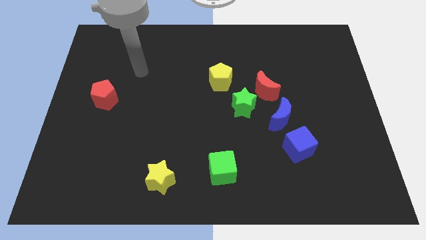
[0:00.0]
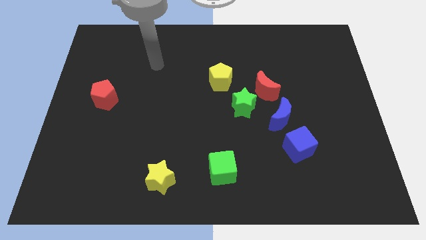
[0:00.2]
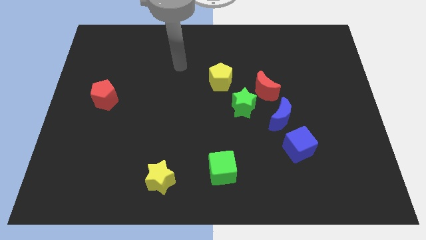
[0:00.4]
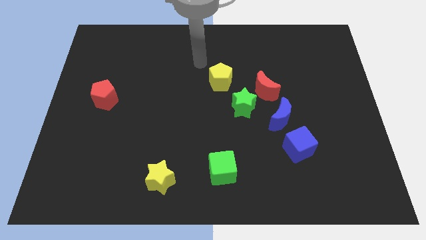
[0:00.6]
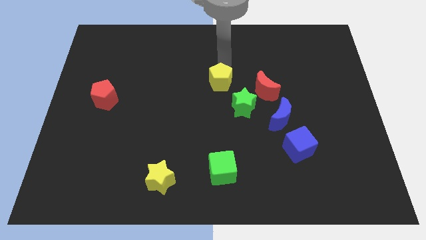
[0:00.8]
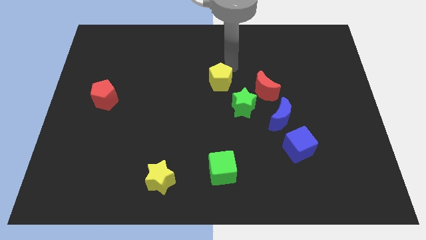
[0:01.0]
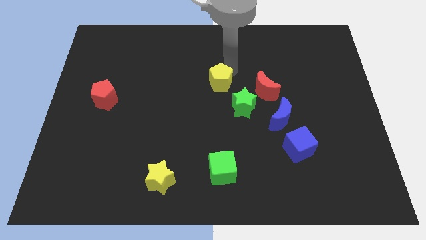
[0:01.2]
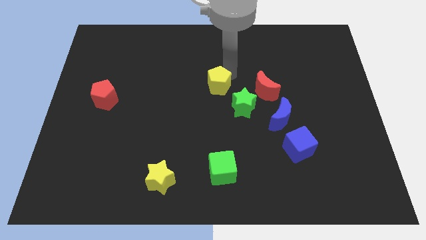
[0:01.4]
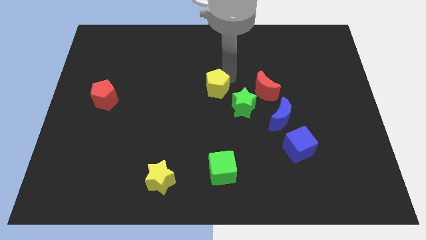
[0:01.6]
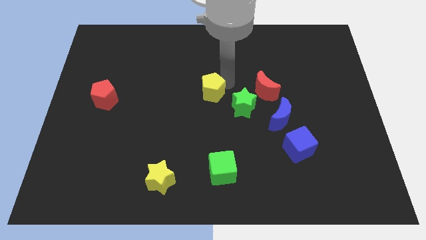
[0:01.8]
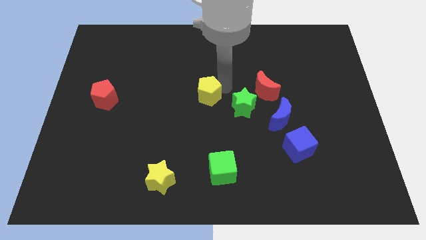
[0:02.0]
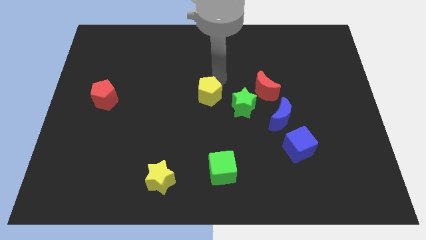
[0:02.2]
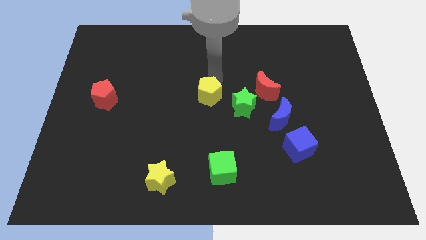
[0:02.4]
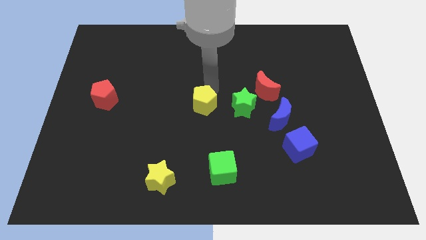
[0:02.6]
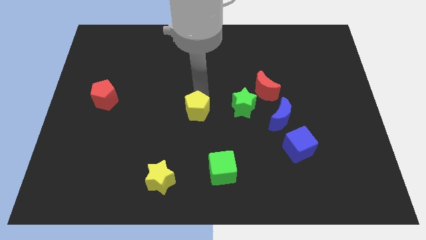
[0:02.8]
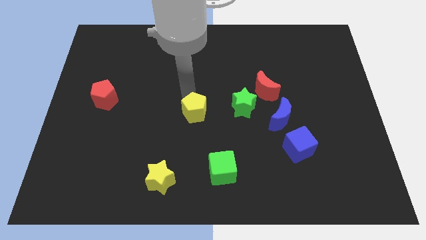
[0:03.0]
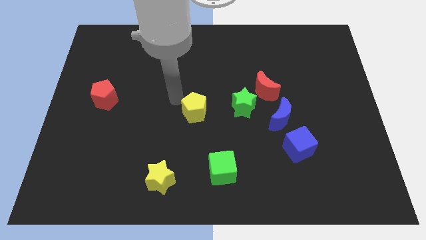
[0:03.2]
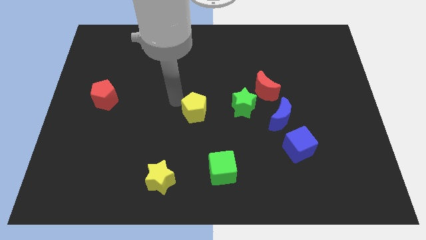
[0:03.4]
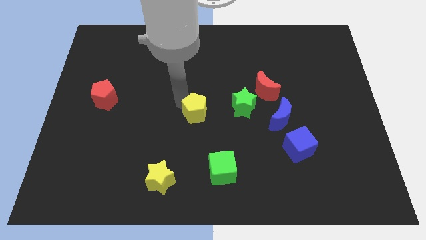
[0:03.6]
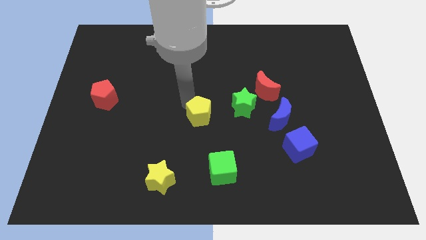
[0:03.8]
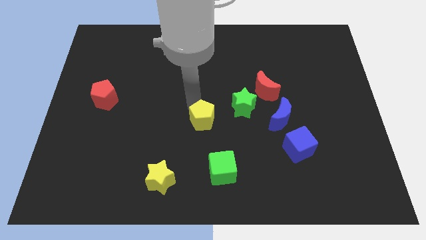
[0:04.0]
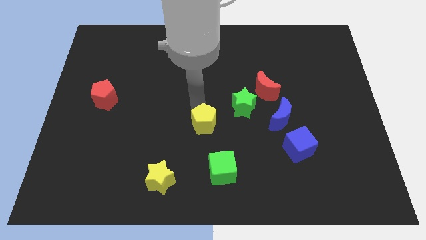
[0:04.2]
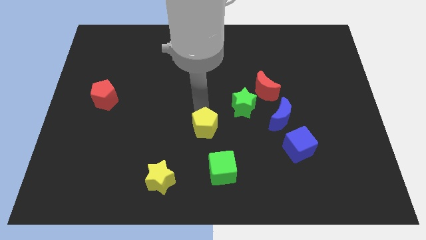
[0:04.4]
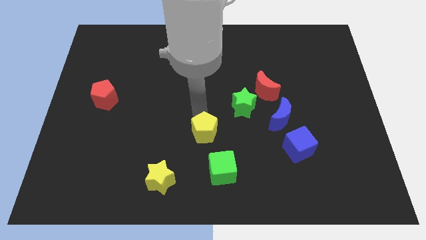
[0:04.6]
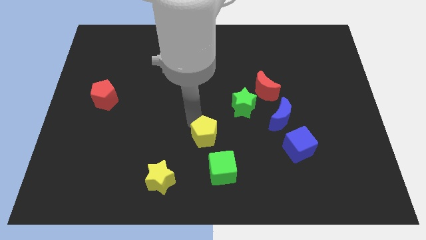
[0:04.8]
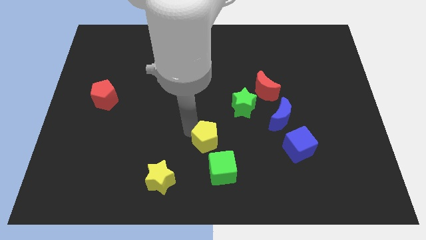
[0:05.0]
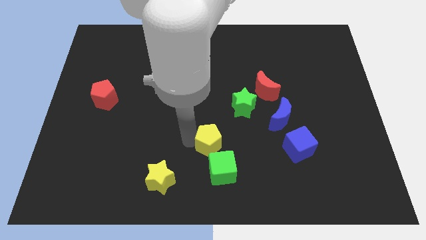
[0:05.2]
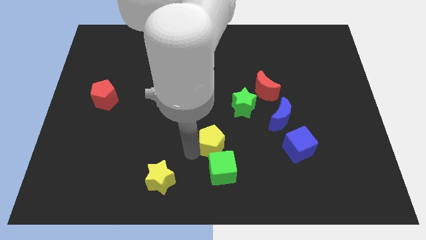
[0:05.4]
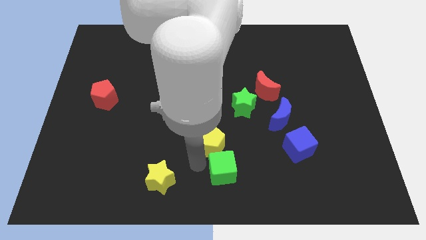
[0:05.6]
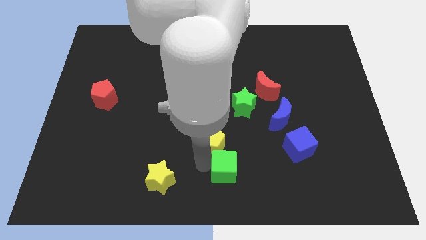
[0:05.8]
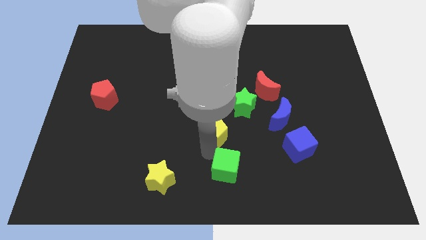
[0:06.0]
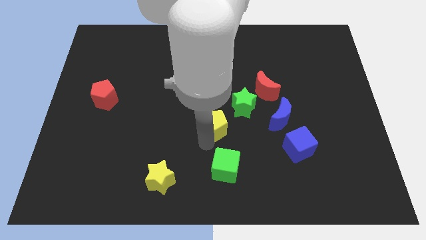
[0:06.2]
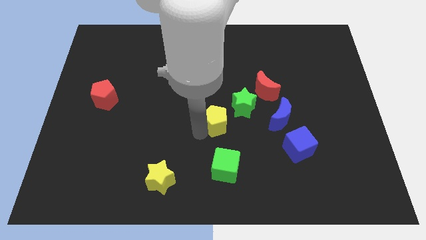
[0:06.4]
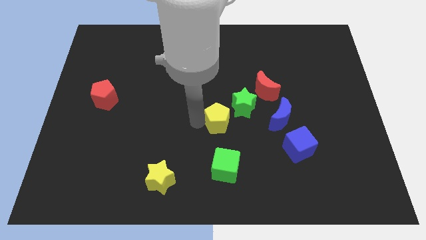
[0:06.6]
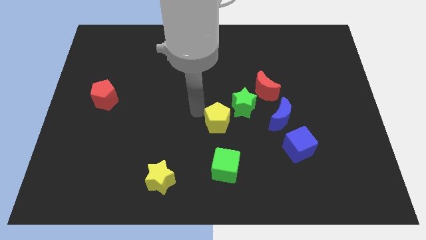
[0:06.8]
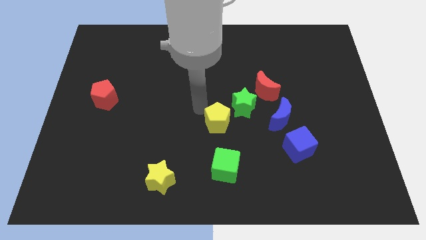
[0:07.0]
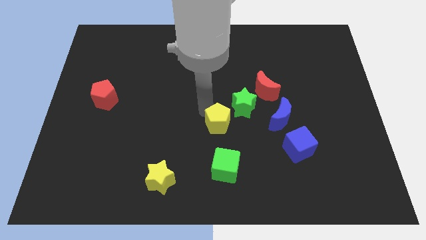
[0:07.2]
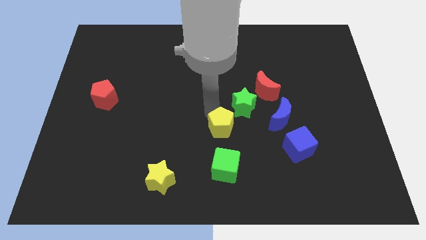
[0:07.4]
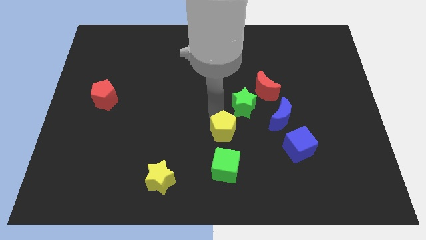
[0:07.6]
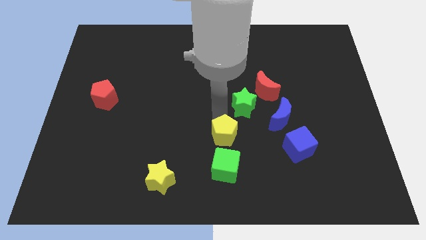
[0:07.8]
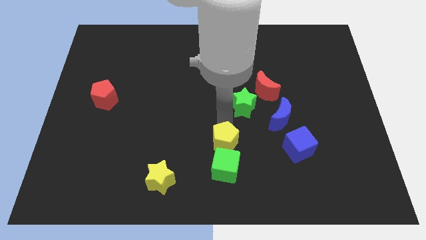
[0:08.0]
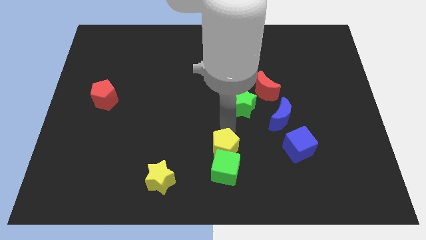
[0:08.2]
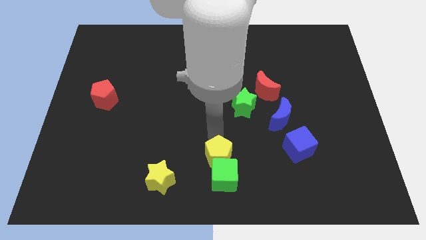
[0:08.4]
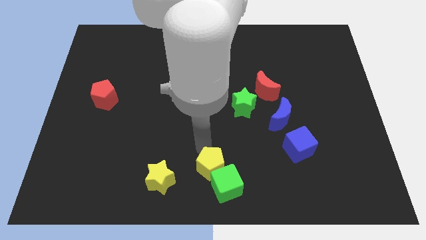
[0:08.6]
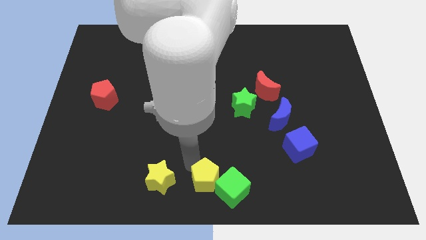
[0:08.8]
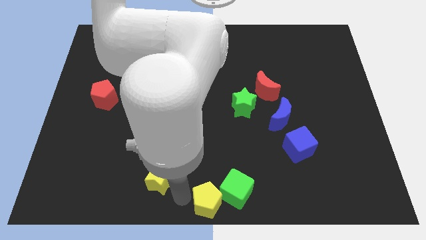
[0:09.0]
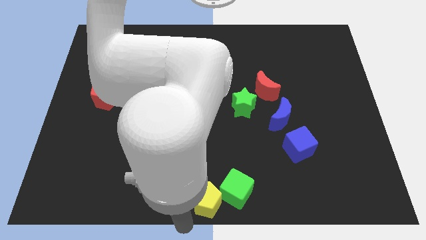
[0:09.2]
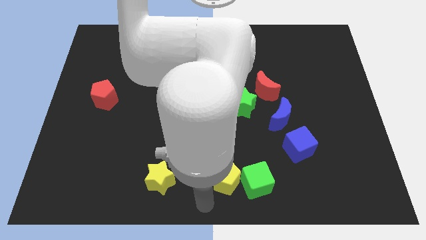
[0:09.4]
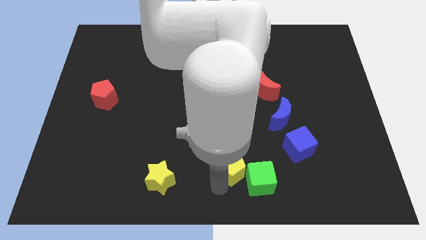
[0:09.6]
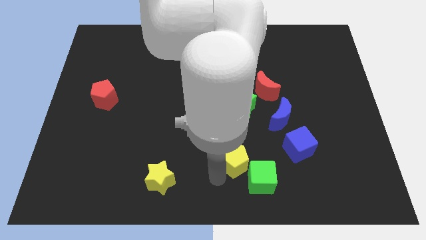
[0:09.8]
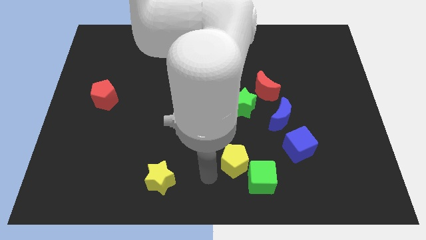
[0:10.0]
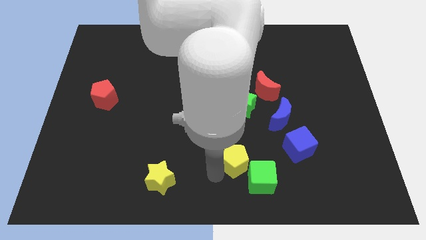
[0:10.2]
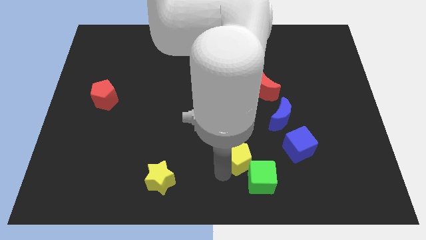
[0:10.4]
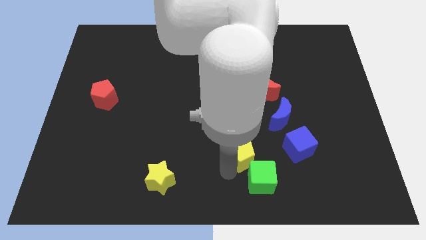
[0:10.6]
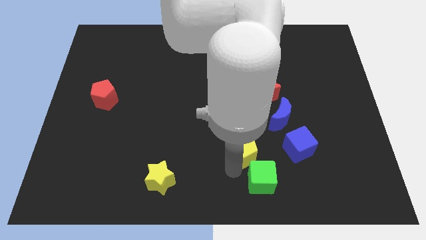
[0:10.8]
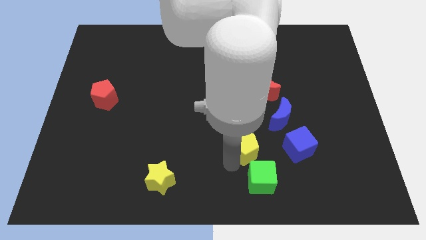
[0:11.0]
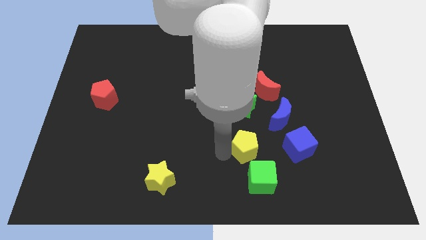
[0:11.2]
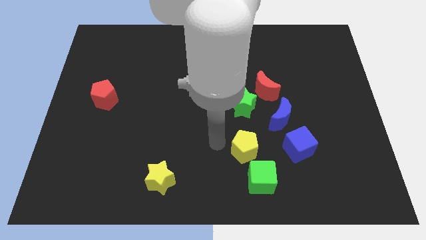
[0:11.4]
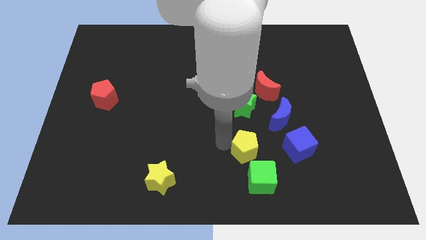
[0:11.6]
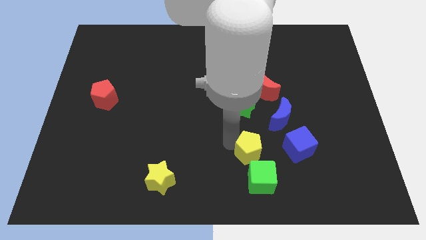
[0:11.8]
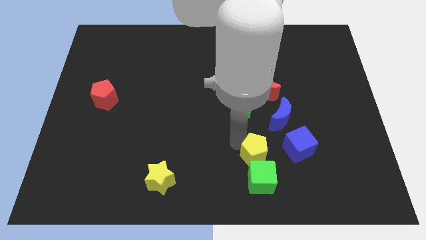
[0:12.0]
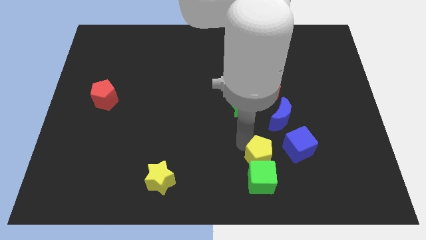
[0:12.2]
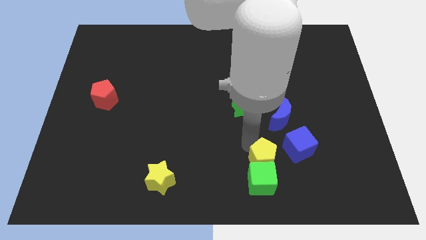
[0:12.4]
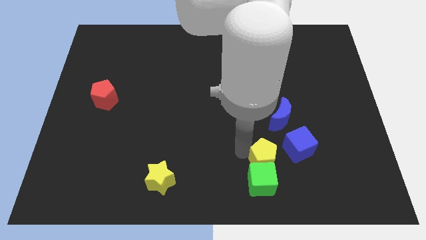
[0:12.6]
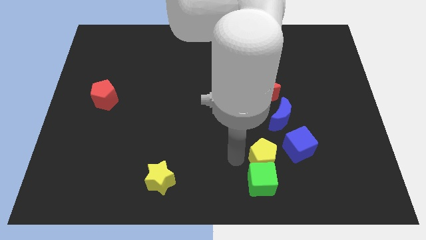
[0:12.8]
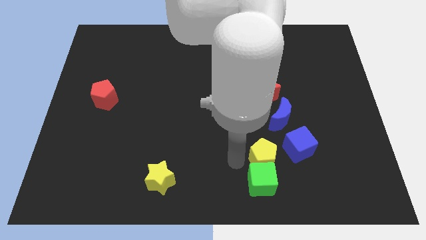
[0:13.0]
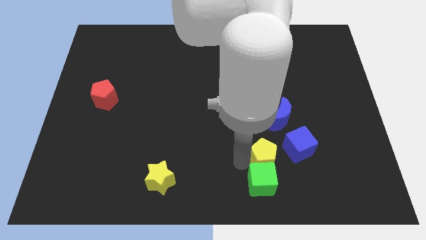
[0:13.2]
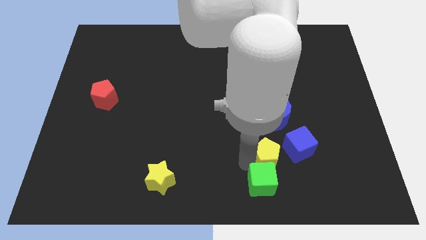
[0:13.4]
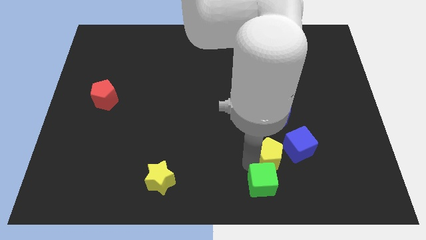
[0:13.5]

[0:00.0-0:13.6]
move the yellow pentagon downwards and then to the right

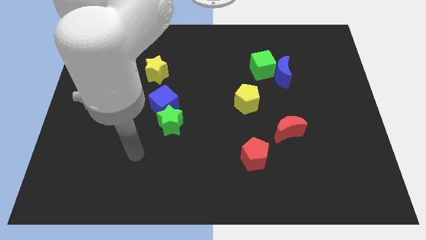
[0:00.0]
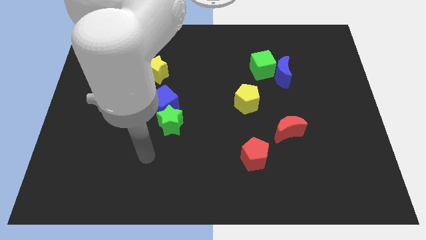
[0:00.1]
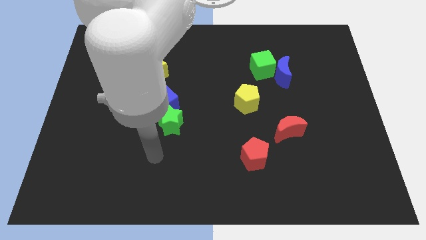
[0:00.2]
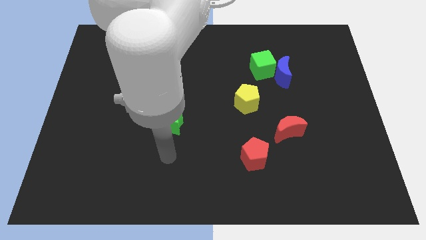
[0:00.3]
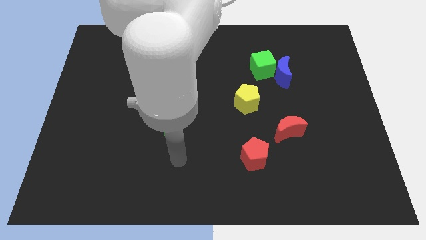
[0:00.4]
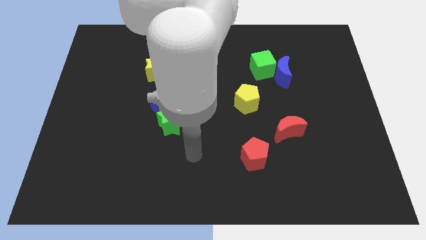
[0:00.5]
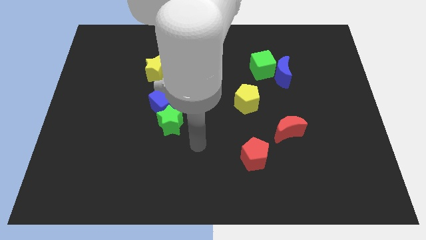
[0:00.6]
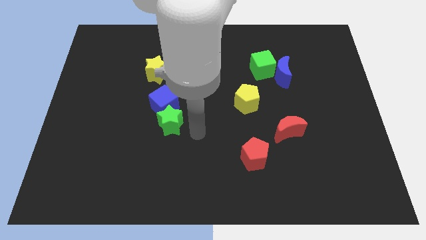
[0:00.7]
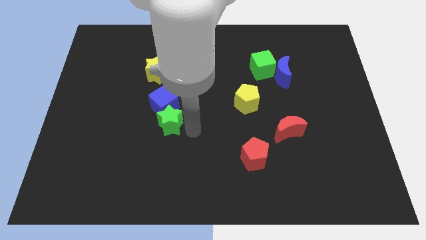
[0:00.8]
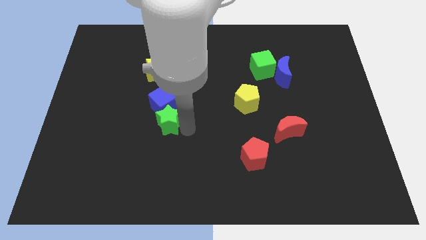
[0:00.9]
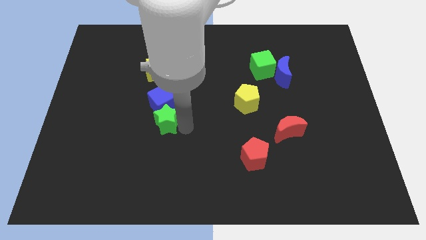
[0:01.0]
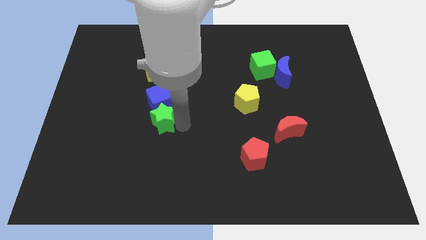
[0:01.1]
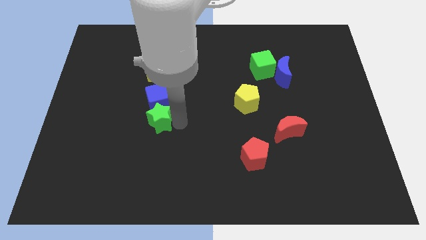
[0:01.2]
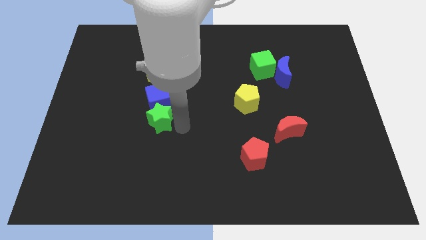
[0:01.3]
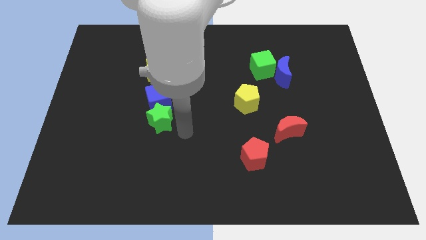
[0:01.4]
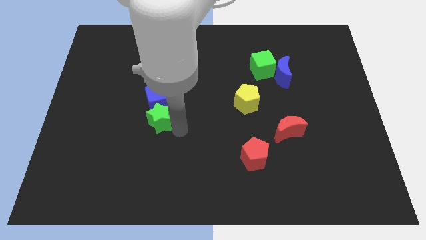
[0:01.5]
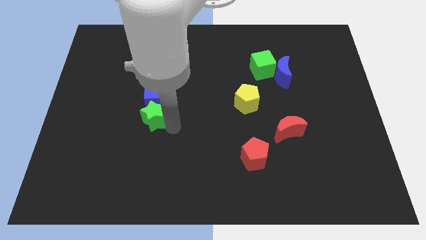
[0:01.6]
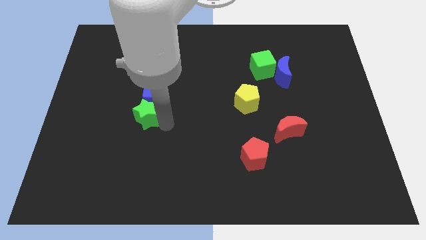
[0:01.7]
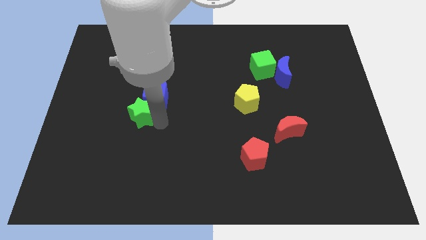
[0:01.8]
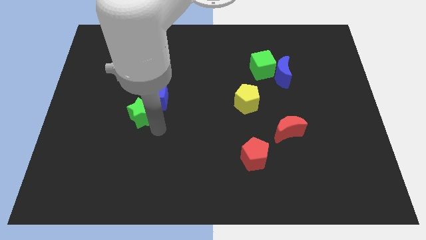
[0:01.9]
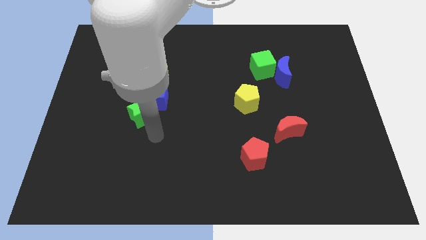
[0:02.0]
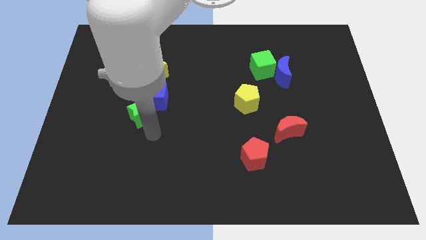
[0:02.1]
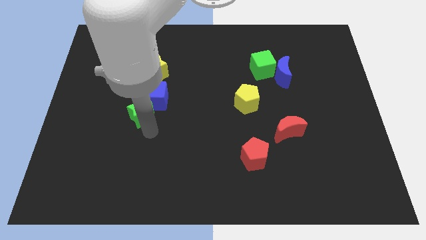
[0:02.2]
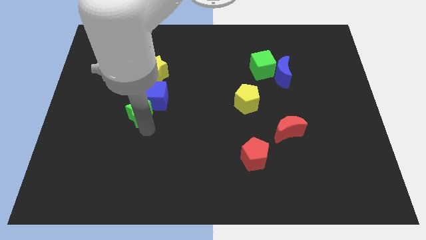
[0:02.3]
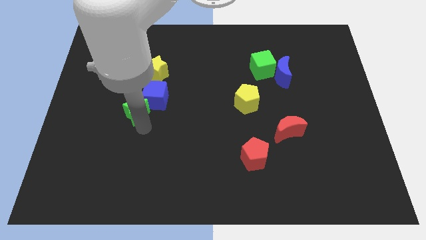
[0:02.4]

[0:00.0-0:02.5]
push the green star a little diagonally up and to the left
